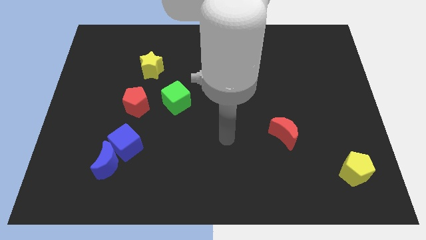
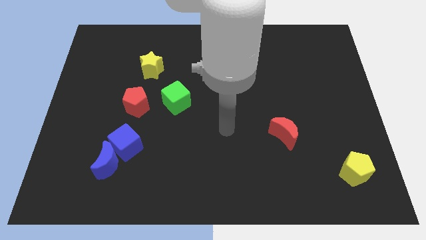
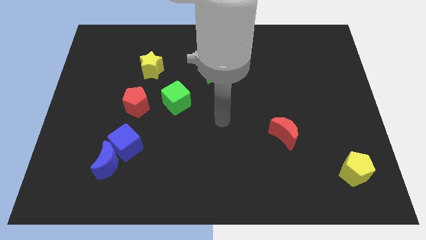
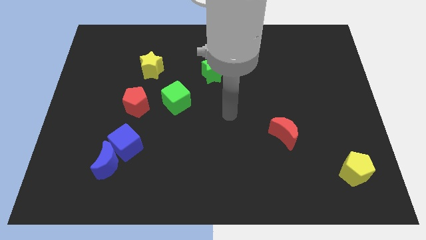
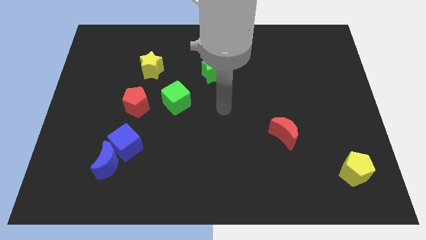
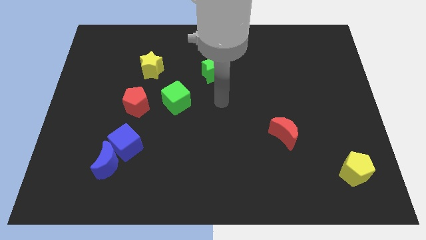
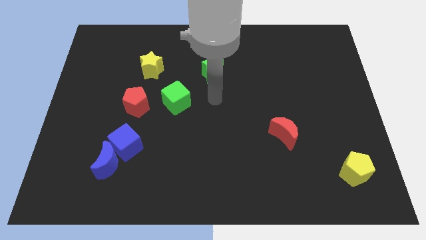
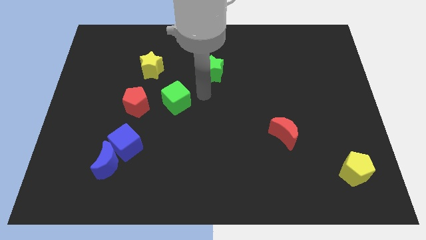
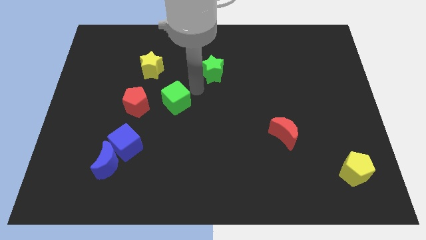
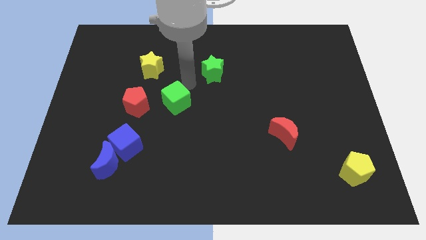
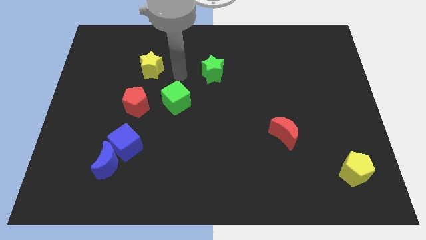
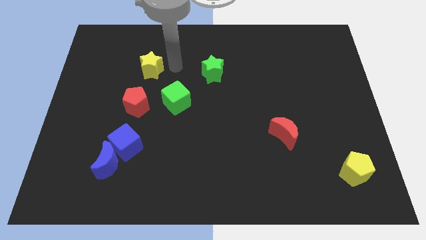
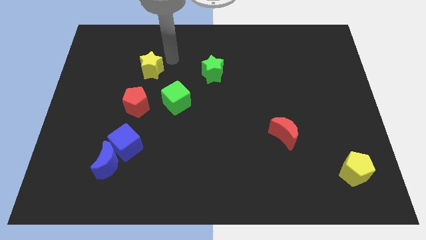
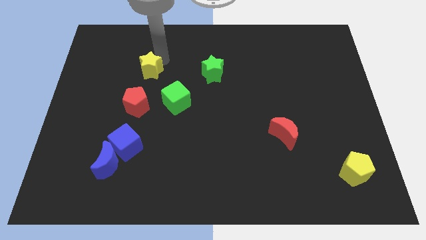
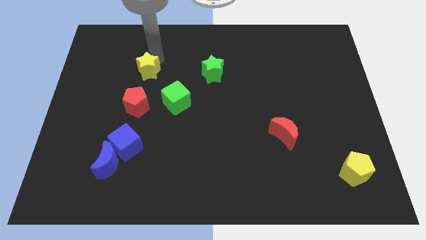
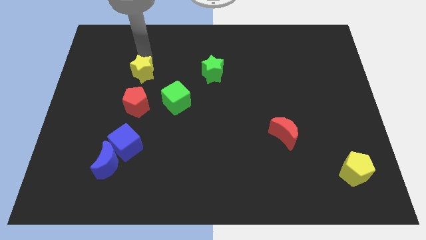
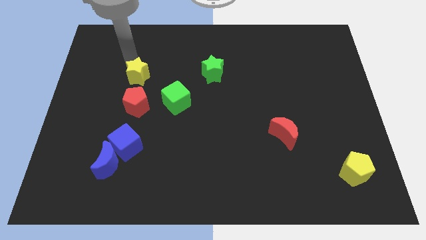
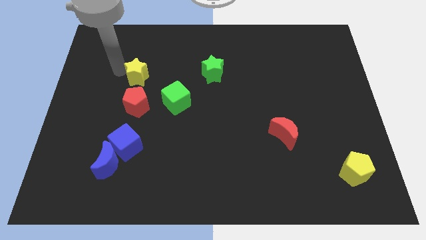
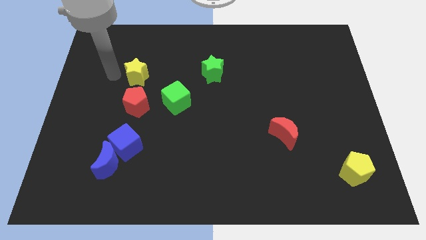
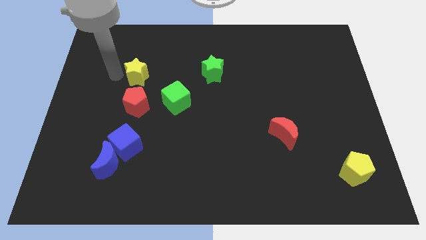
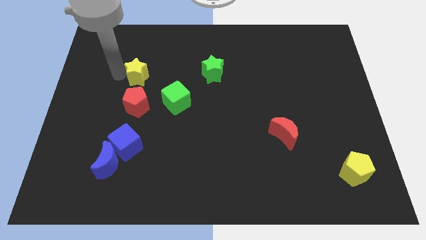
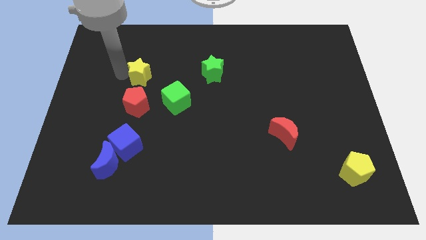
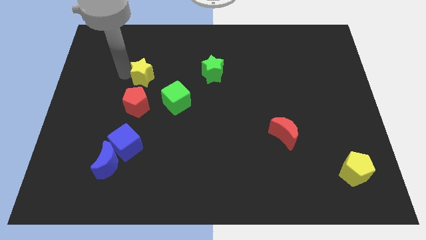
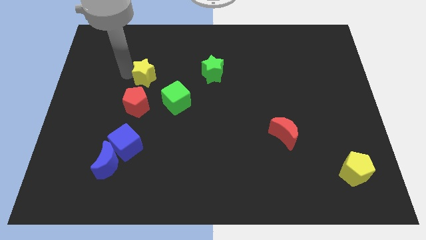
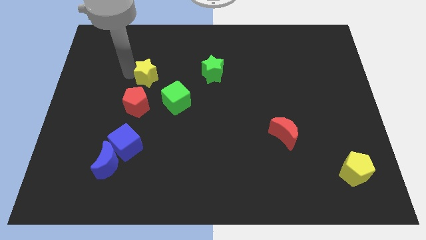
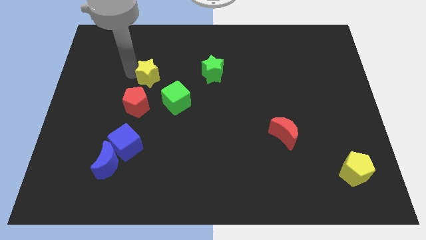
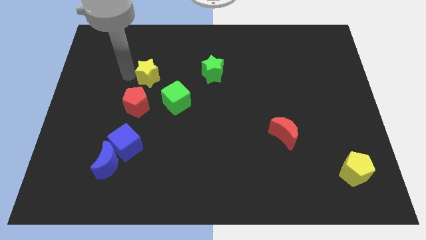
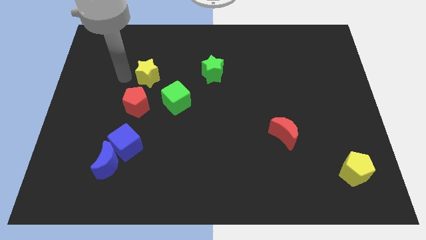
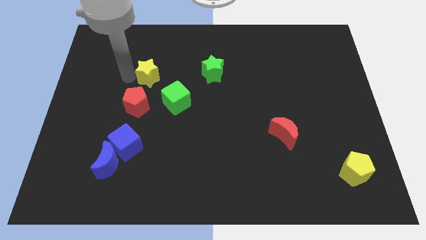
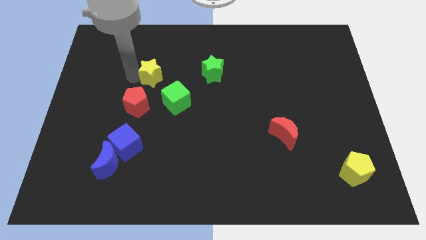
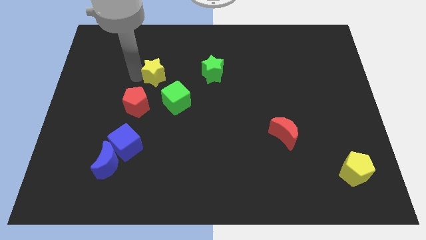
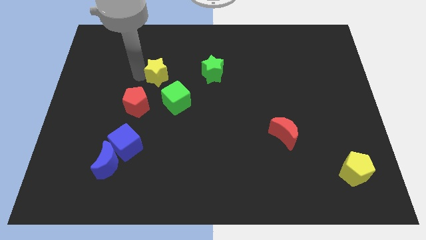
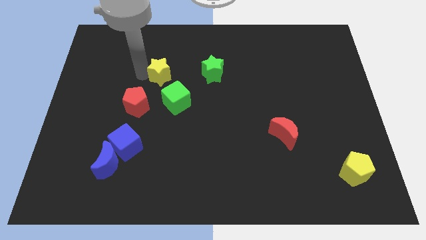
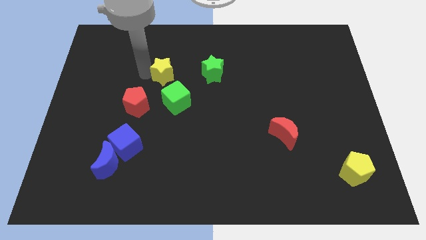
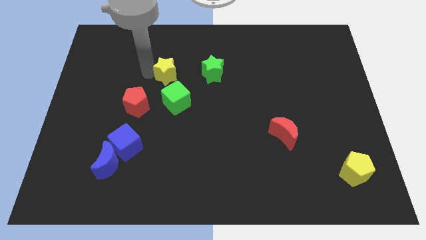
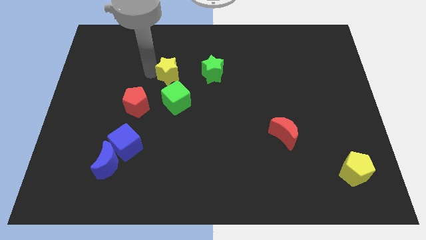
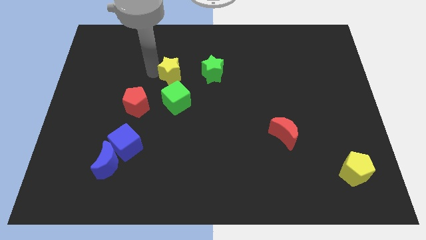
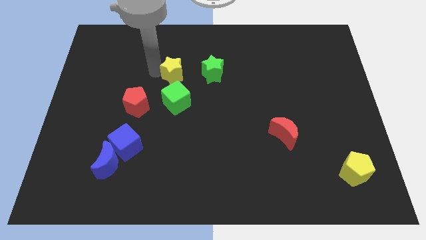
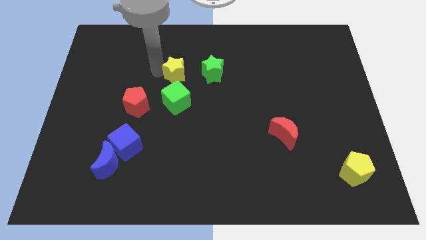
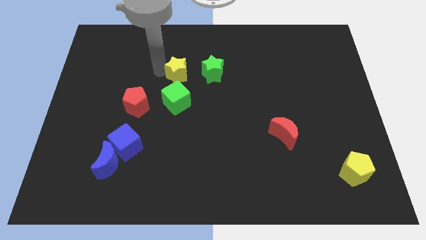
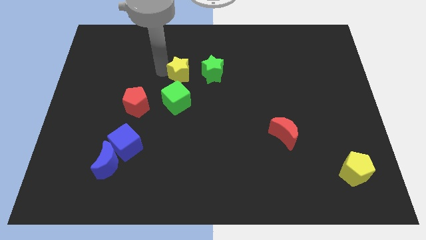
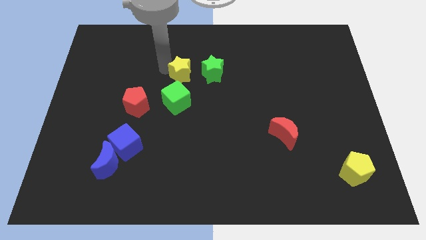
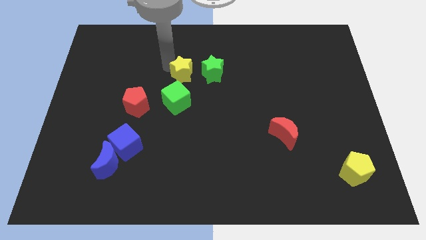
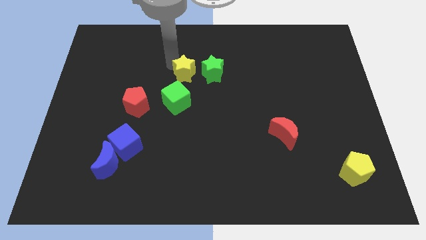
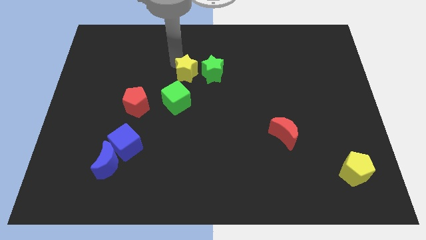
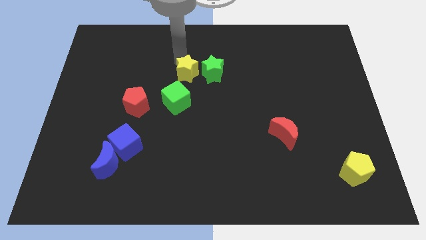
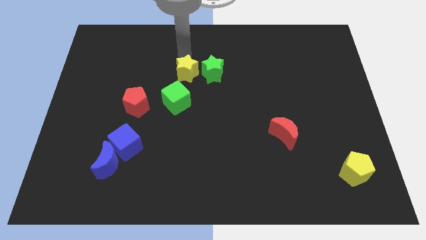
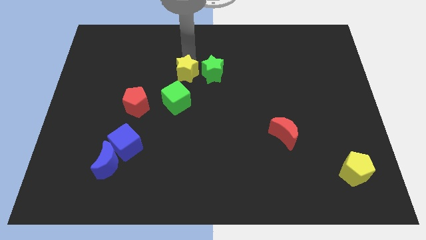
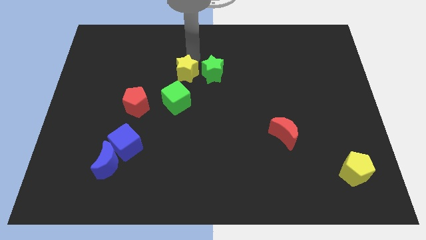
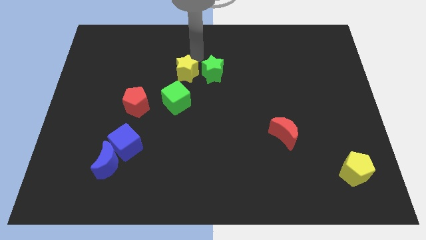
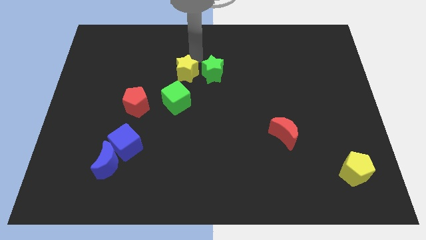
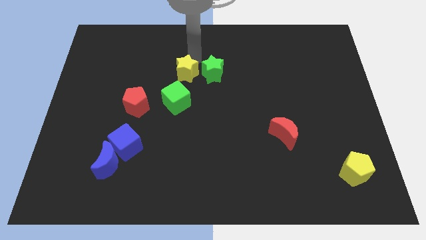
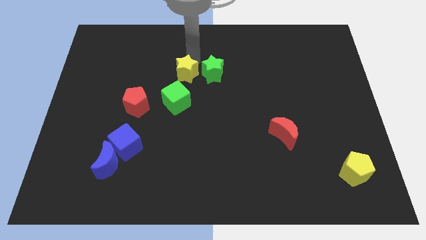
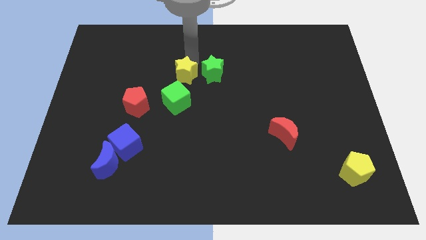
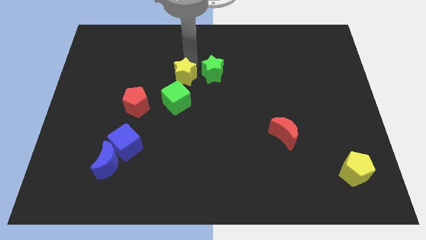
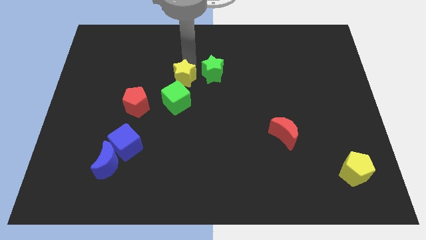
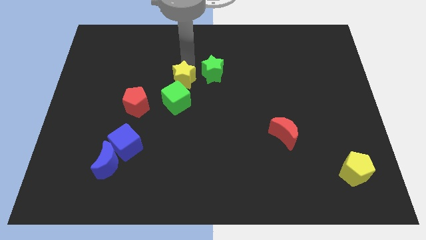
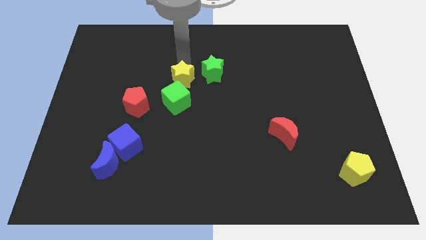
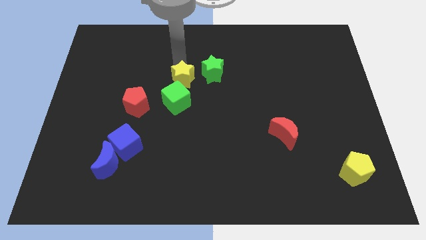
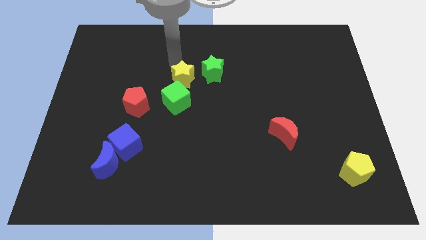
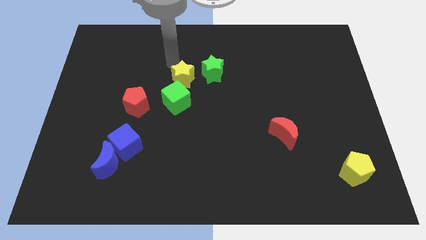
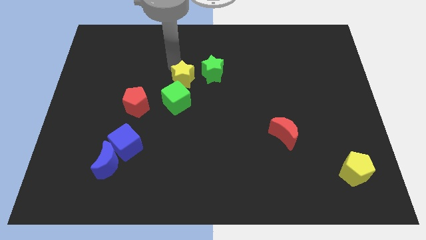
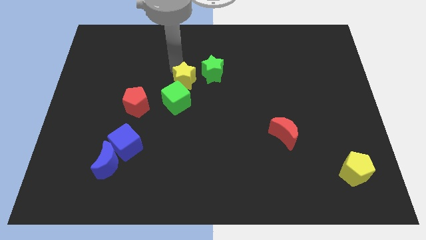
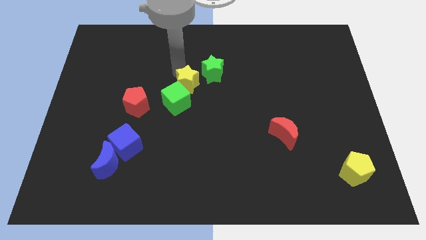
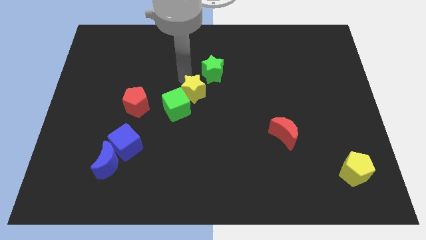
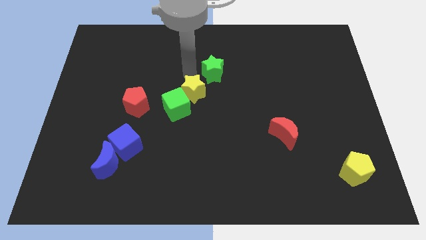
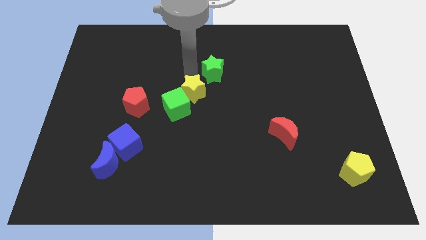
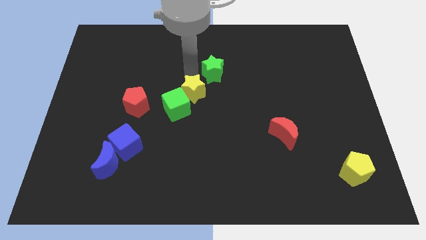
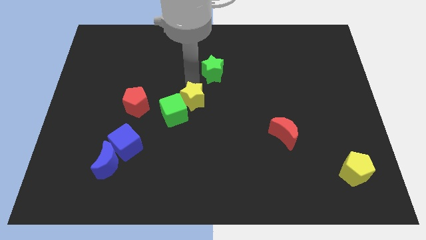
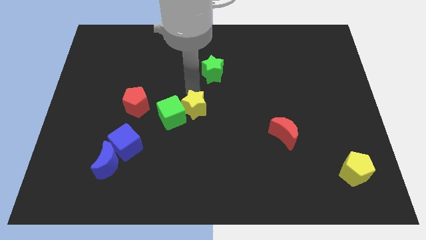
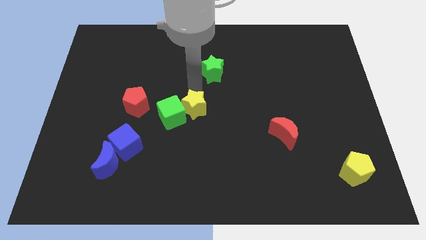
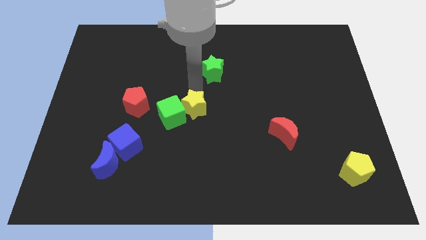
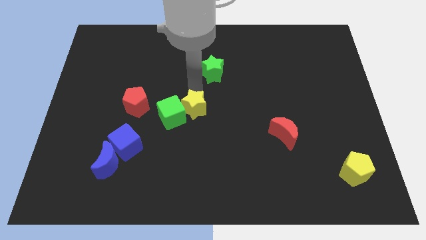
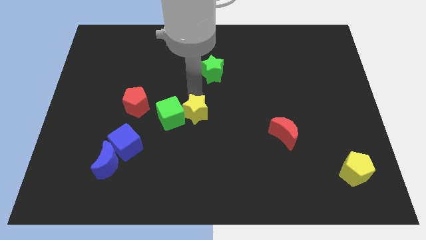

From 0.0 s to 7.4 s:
move the yellow star to the bottom right side of the green cube
